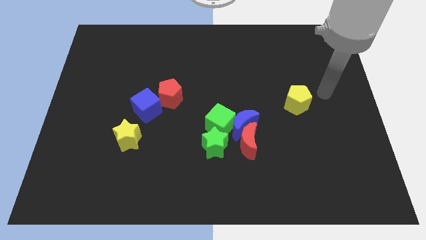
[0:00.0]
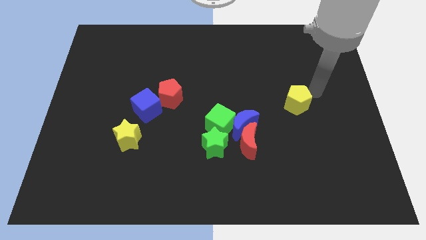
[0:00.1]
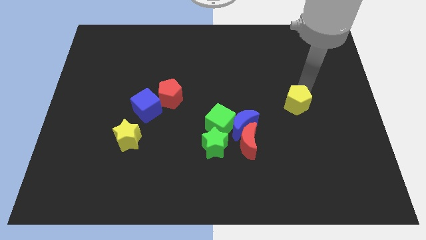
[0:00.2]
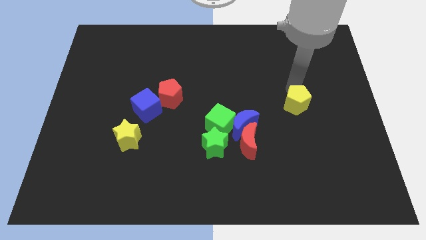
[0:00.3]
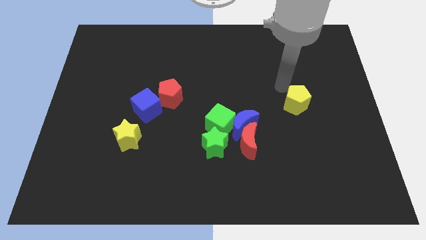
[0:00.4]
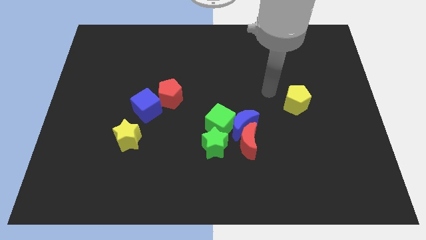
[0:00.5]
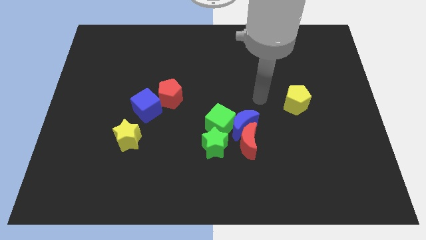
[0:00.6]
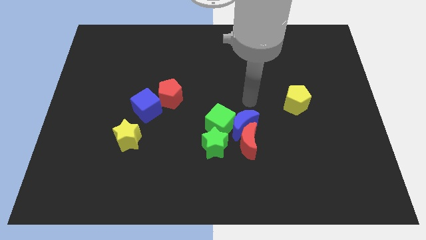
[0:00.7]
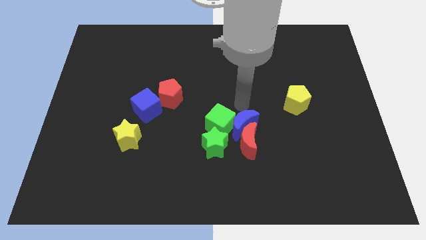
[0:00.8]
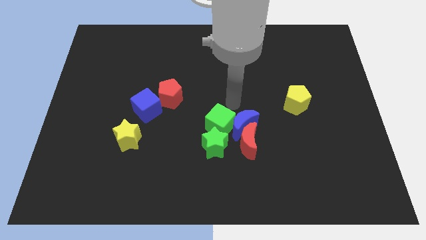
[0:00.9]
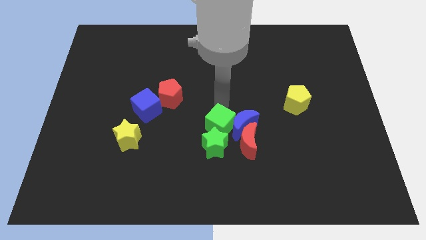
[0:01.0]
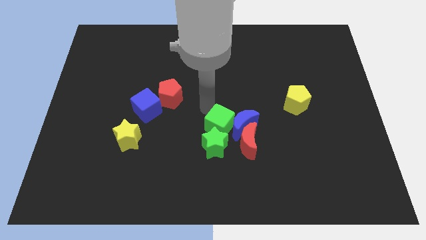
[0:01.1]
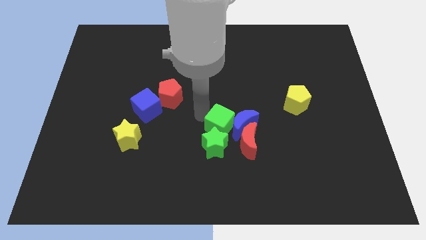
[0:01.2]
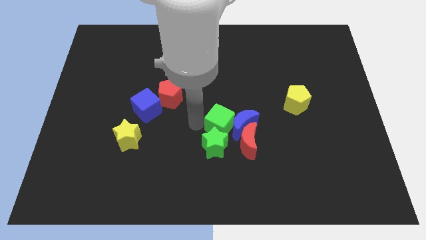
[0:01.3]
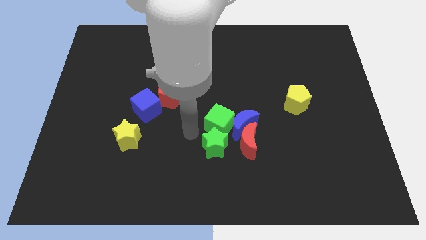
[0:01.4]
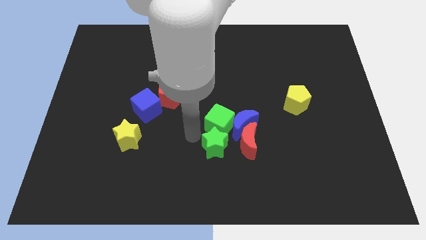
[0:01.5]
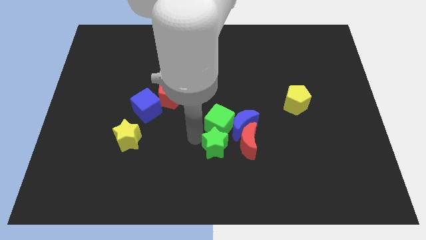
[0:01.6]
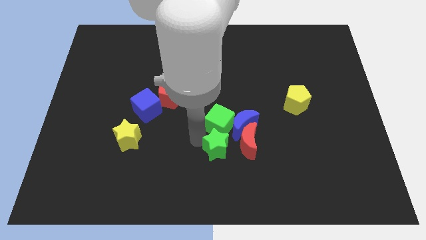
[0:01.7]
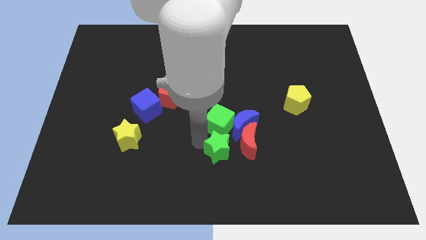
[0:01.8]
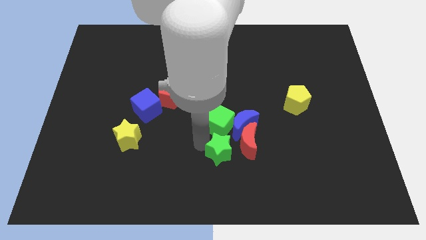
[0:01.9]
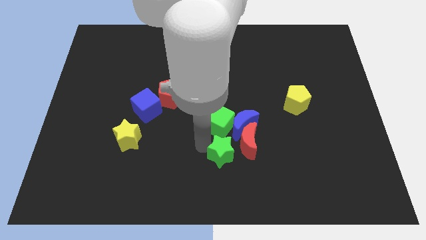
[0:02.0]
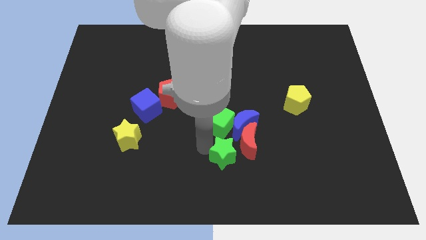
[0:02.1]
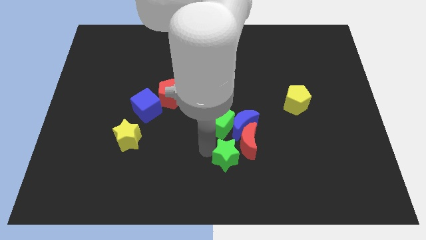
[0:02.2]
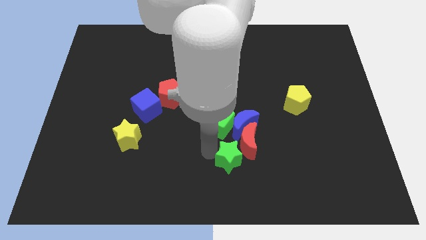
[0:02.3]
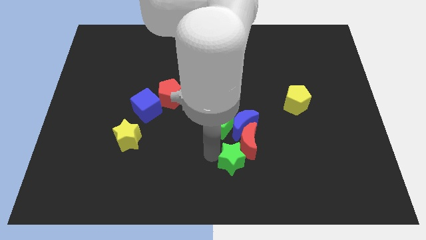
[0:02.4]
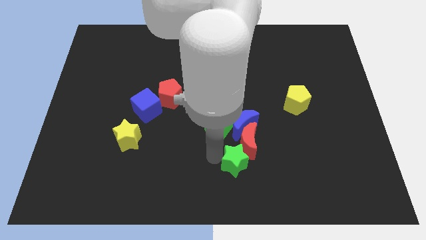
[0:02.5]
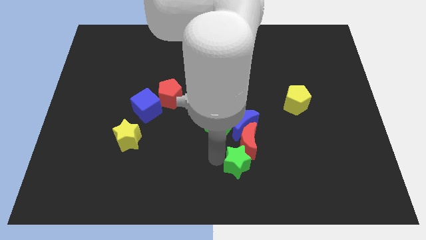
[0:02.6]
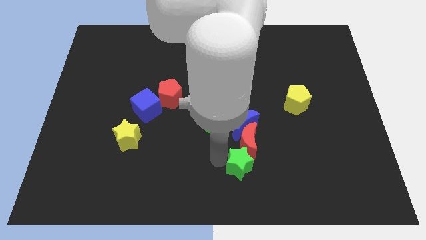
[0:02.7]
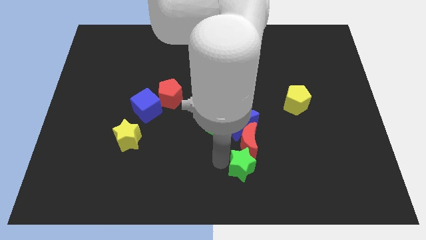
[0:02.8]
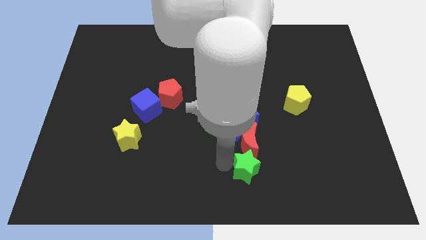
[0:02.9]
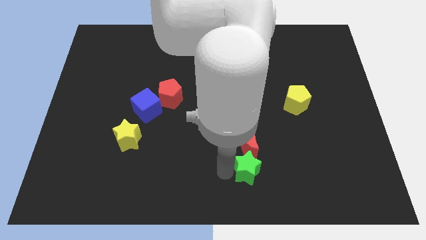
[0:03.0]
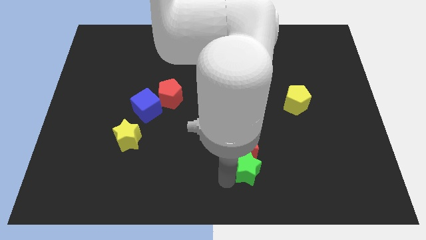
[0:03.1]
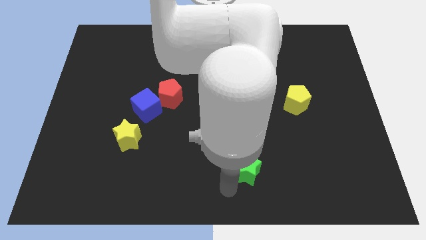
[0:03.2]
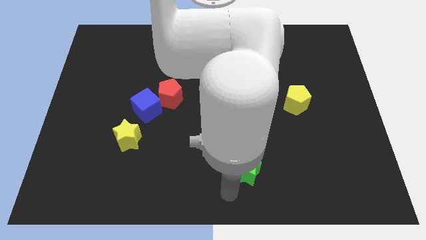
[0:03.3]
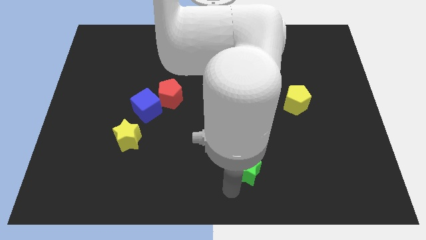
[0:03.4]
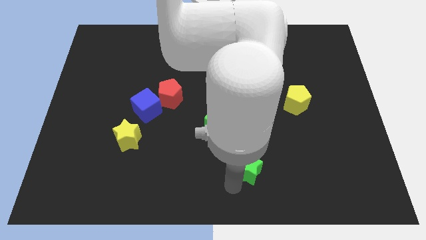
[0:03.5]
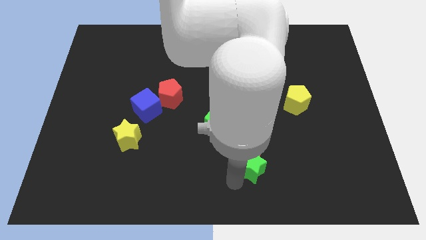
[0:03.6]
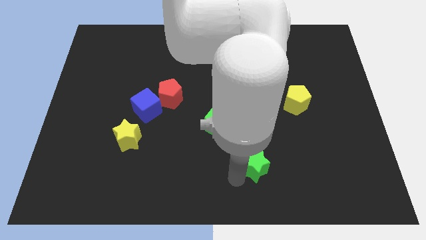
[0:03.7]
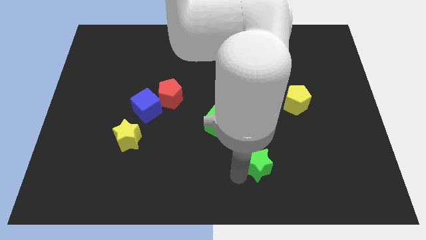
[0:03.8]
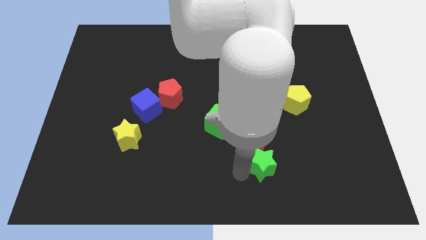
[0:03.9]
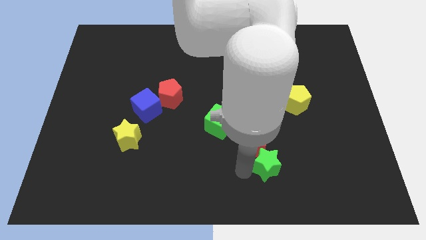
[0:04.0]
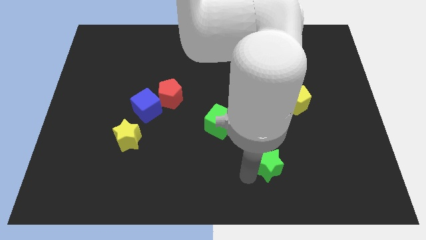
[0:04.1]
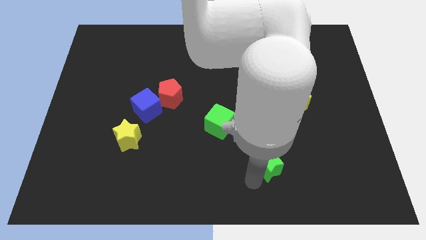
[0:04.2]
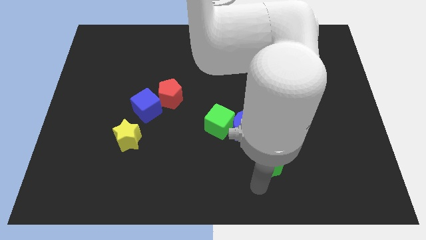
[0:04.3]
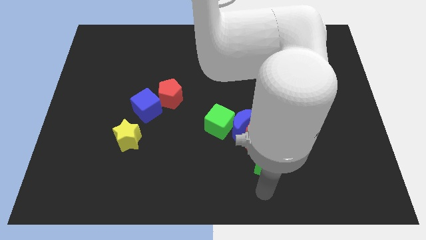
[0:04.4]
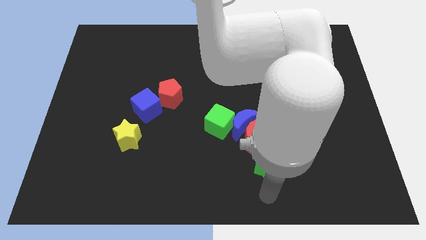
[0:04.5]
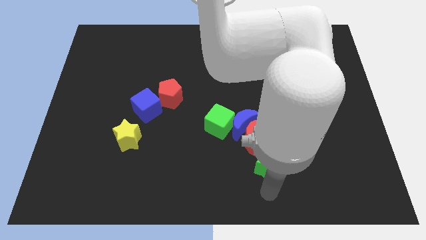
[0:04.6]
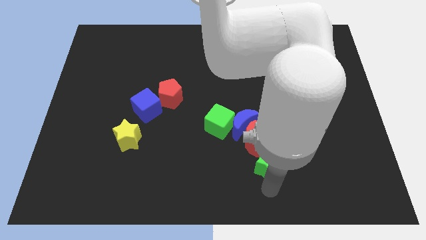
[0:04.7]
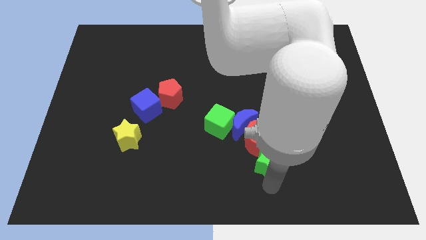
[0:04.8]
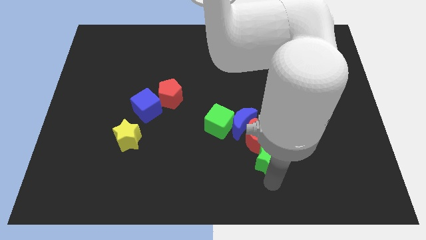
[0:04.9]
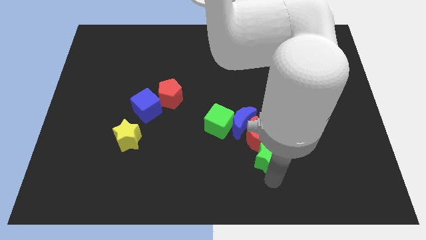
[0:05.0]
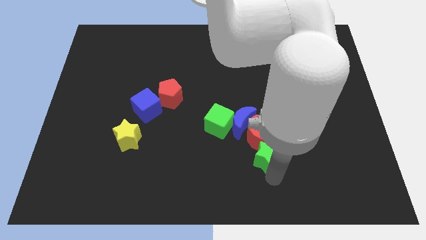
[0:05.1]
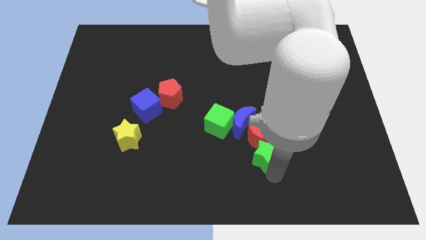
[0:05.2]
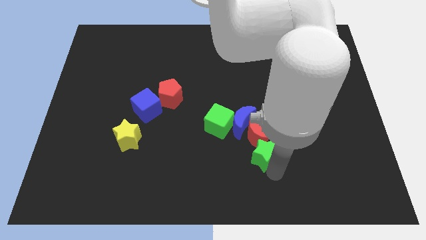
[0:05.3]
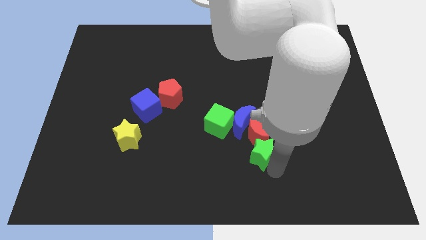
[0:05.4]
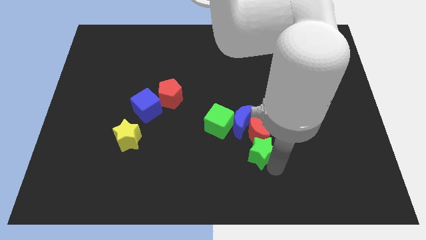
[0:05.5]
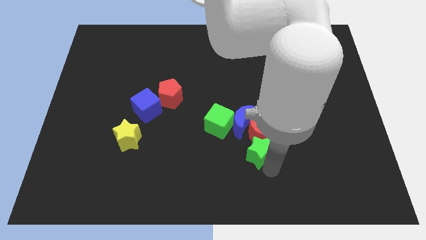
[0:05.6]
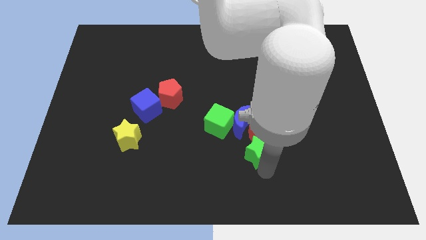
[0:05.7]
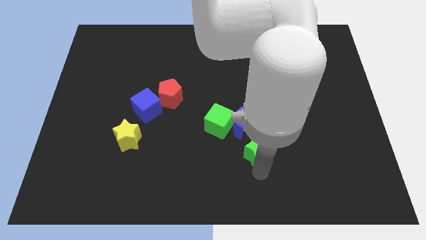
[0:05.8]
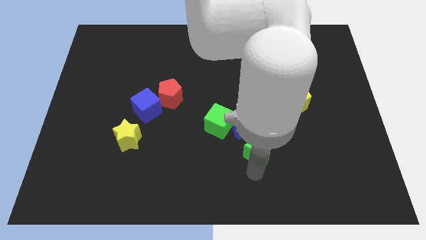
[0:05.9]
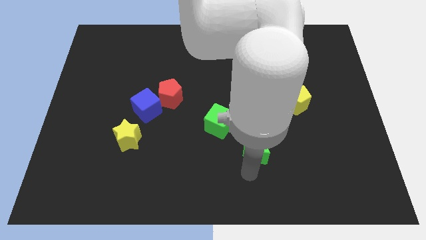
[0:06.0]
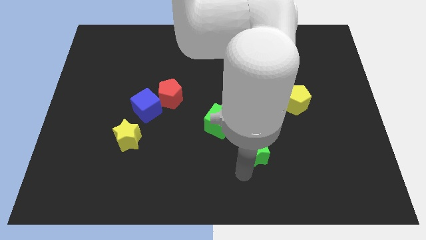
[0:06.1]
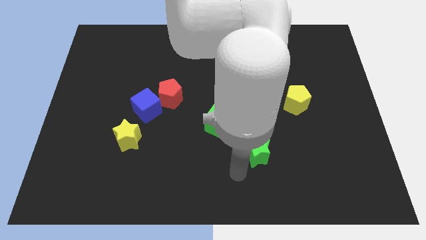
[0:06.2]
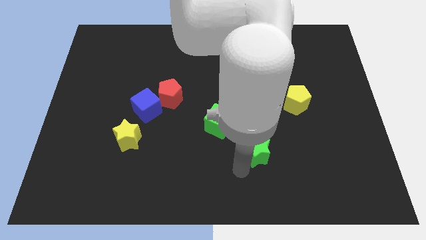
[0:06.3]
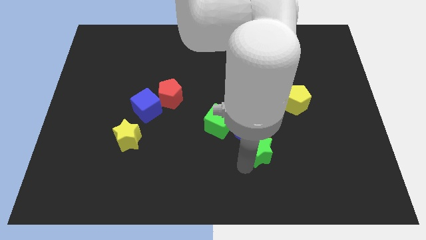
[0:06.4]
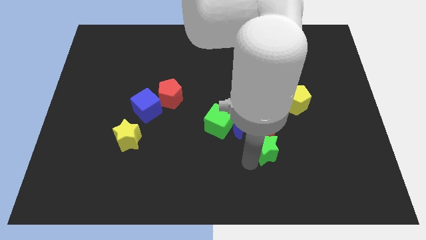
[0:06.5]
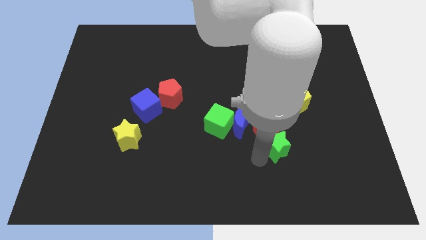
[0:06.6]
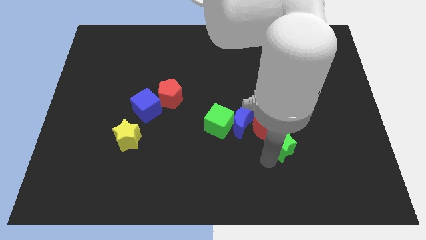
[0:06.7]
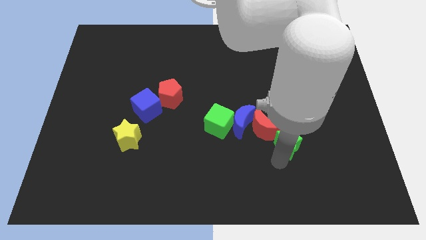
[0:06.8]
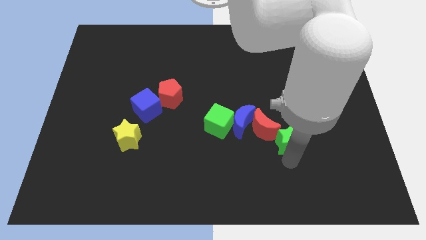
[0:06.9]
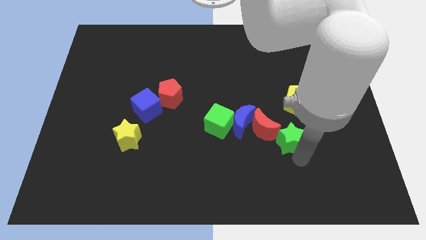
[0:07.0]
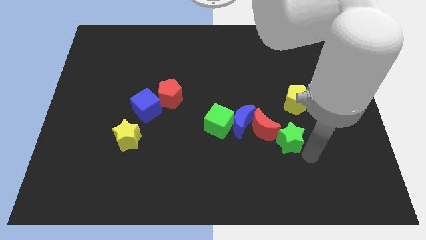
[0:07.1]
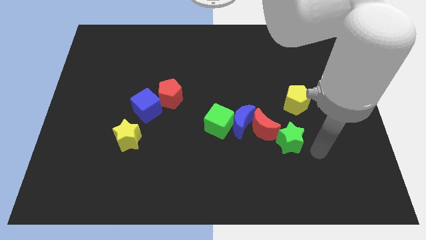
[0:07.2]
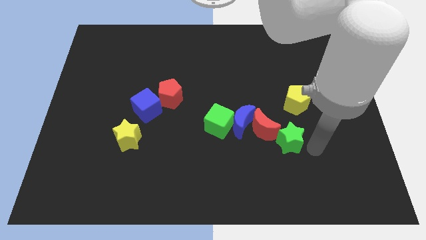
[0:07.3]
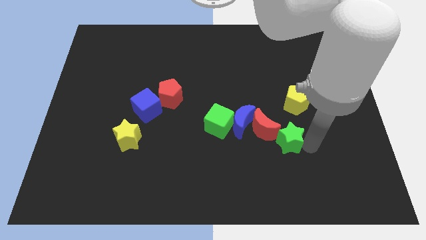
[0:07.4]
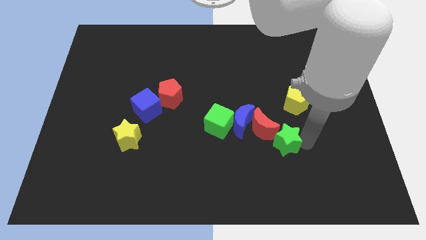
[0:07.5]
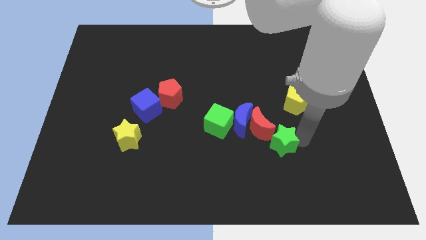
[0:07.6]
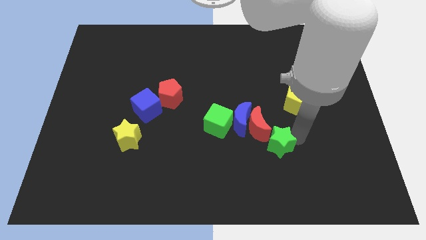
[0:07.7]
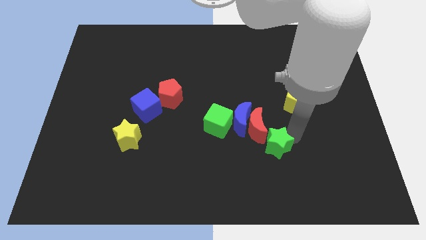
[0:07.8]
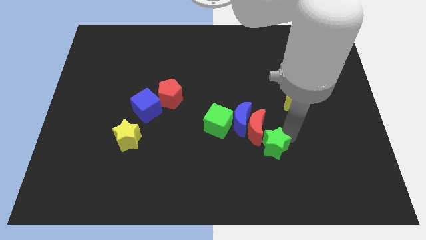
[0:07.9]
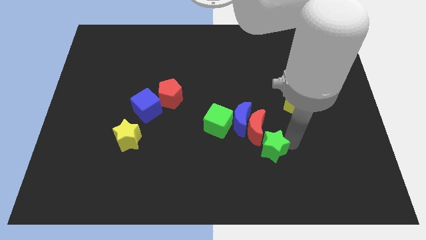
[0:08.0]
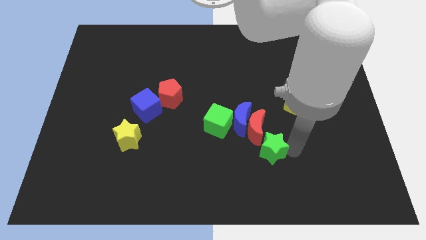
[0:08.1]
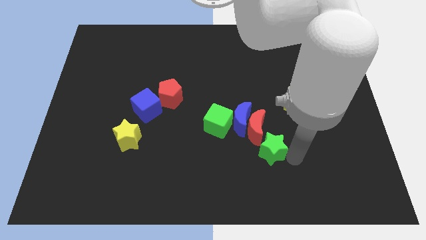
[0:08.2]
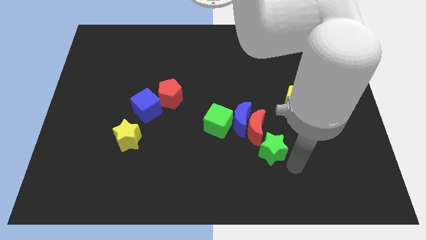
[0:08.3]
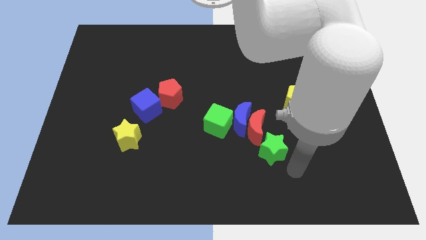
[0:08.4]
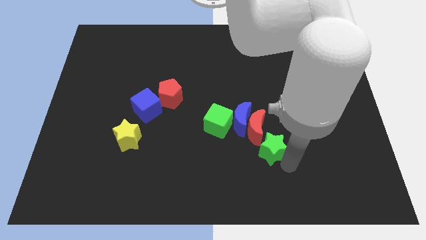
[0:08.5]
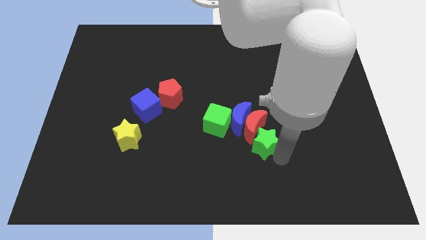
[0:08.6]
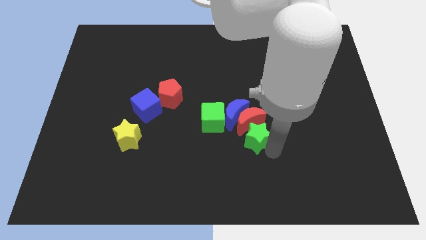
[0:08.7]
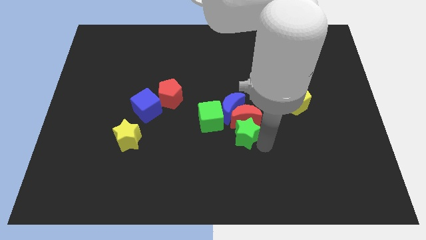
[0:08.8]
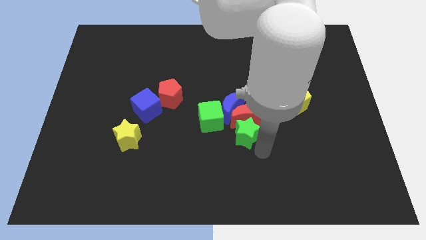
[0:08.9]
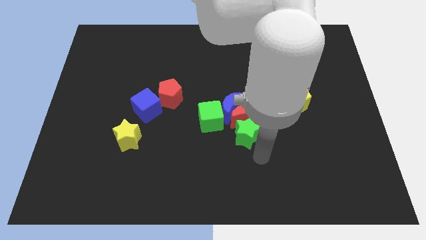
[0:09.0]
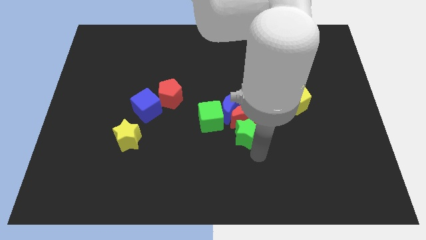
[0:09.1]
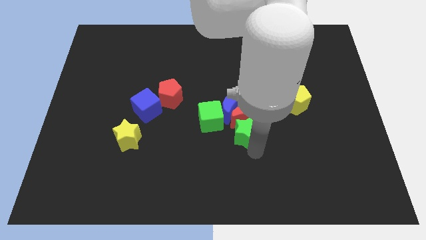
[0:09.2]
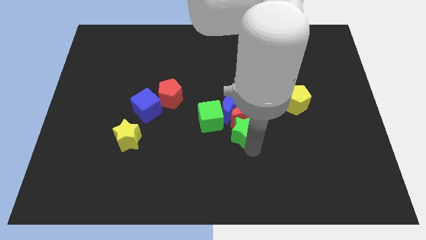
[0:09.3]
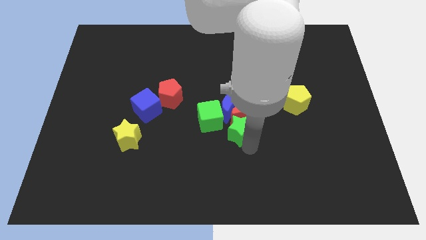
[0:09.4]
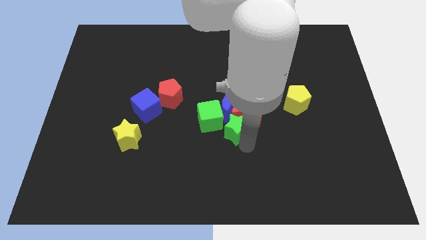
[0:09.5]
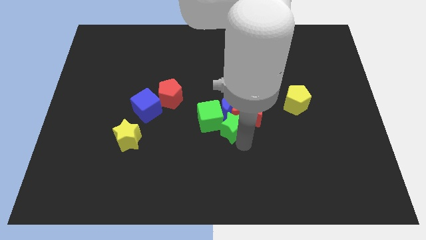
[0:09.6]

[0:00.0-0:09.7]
move the green star next to the blue moon
